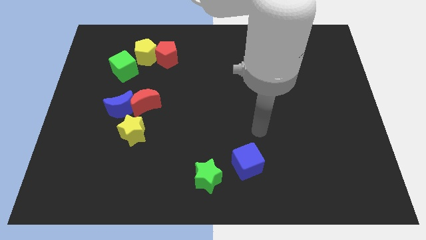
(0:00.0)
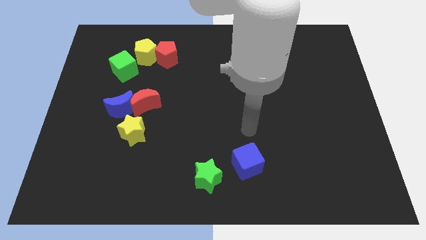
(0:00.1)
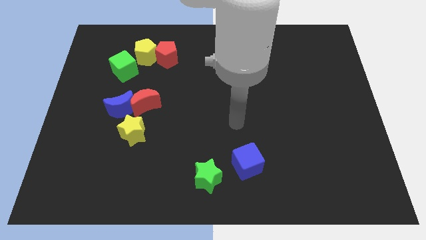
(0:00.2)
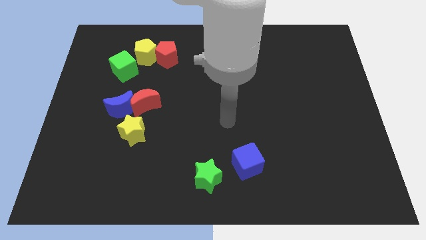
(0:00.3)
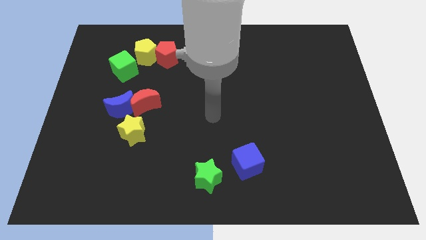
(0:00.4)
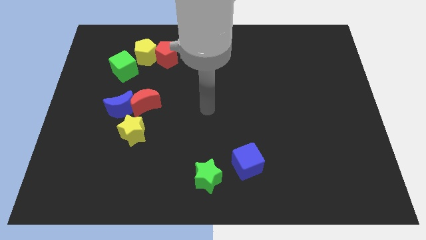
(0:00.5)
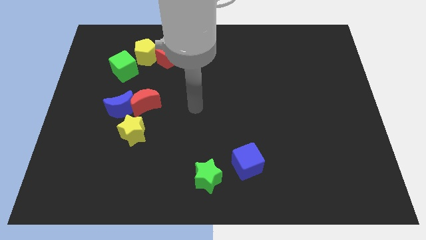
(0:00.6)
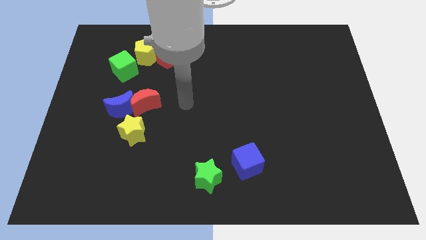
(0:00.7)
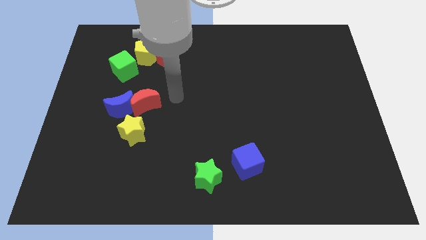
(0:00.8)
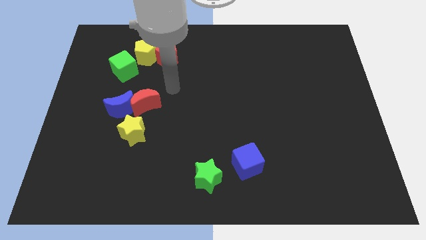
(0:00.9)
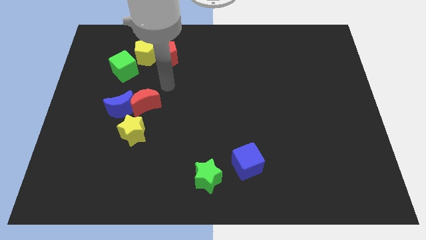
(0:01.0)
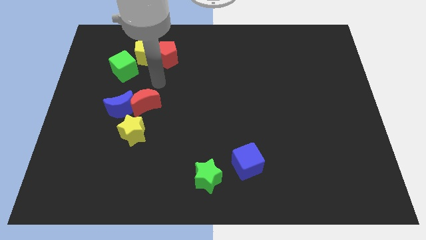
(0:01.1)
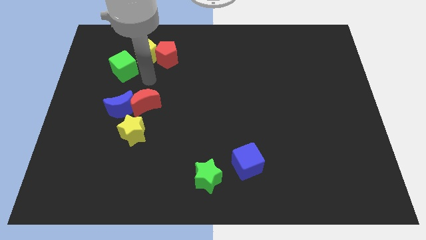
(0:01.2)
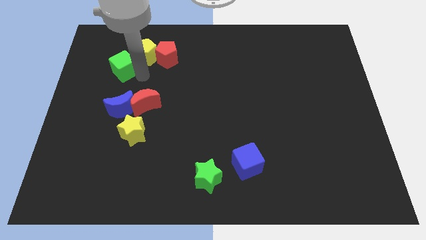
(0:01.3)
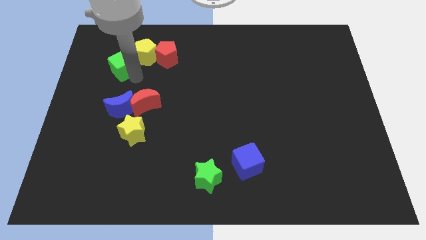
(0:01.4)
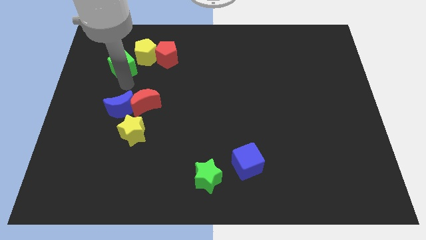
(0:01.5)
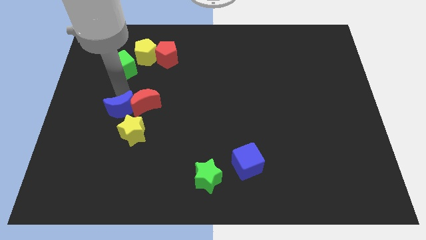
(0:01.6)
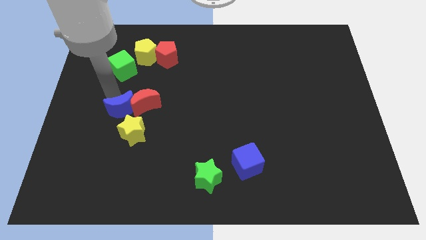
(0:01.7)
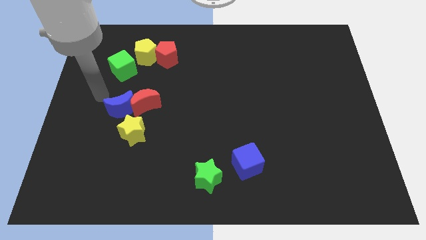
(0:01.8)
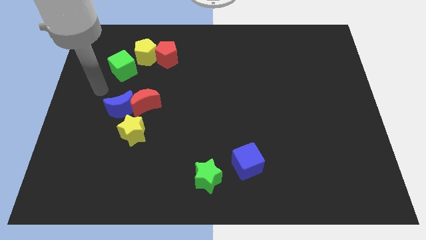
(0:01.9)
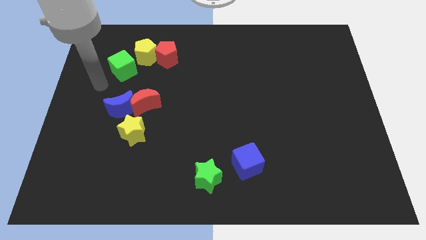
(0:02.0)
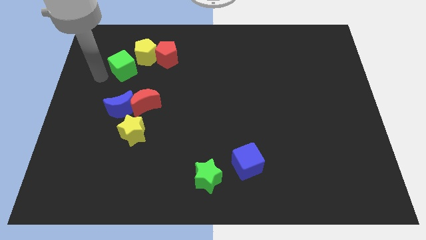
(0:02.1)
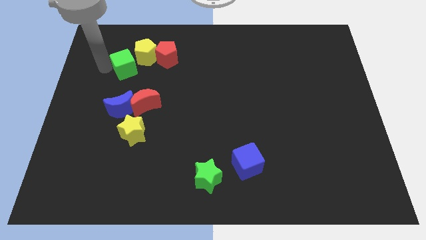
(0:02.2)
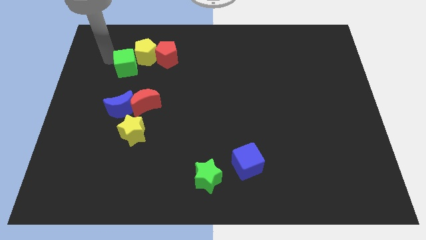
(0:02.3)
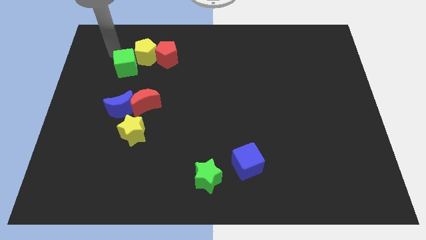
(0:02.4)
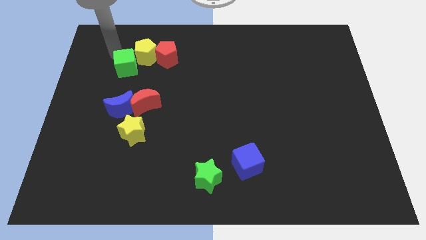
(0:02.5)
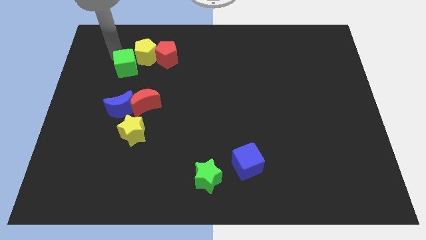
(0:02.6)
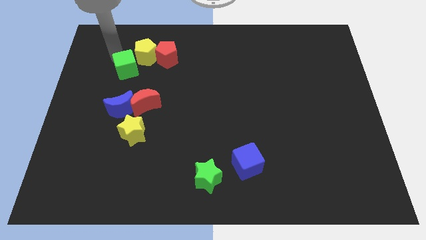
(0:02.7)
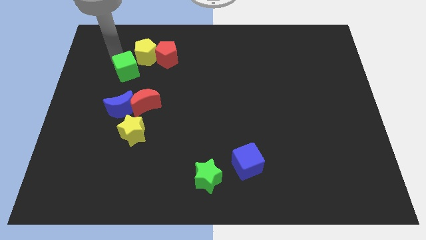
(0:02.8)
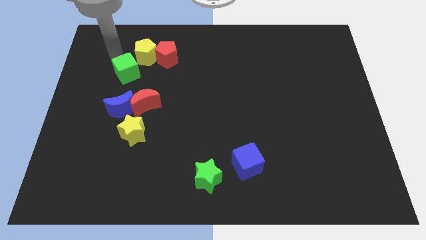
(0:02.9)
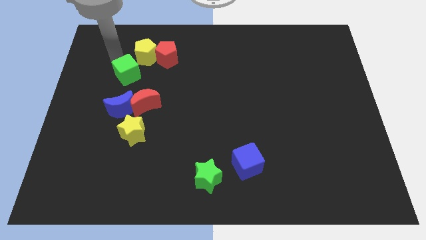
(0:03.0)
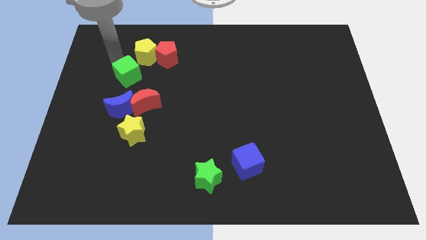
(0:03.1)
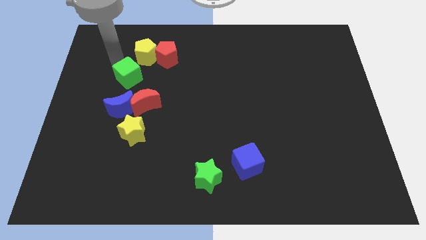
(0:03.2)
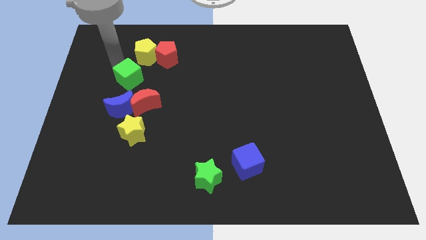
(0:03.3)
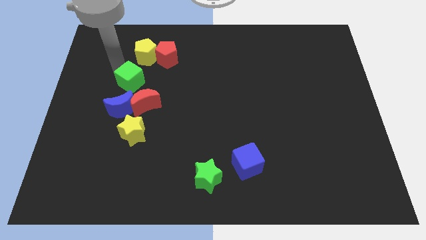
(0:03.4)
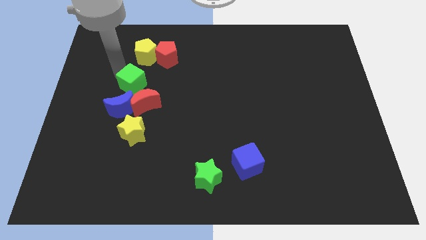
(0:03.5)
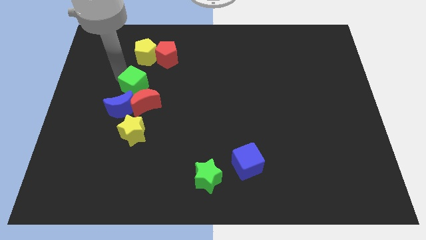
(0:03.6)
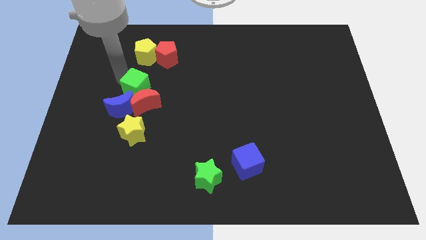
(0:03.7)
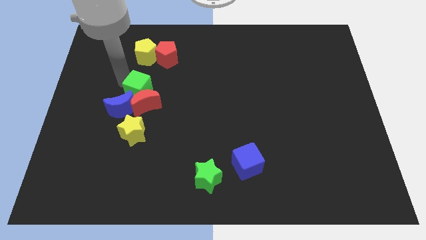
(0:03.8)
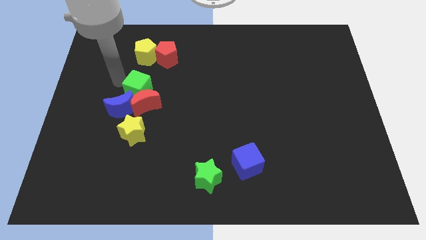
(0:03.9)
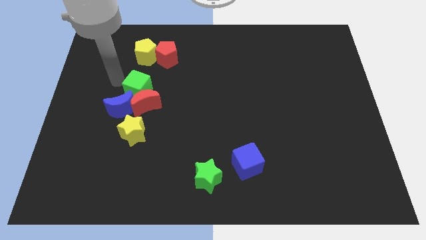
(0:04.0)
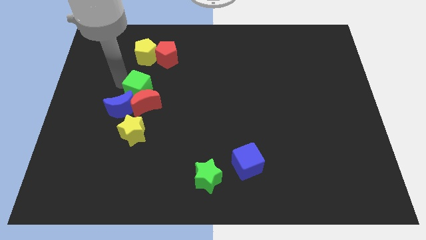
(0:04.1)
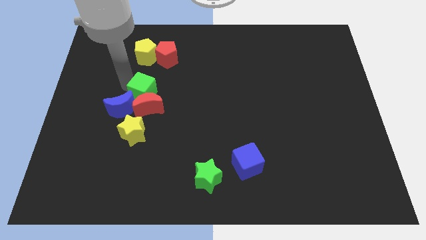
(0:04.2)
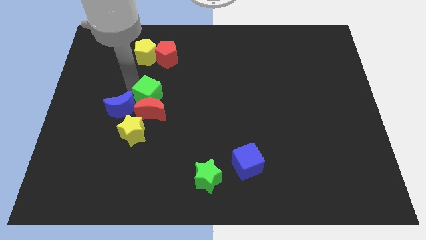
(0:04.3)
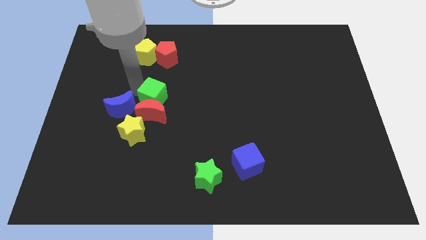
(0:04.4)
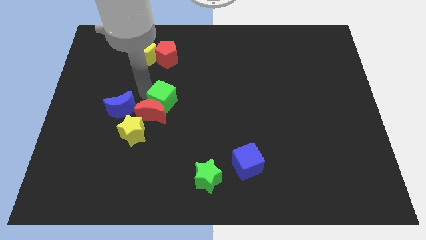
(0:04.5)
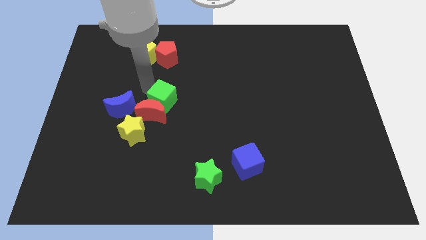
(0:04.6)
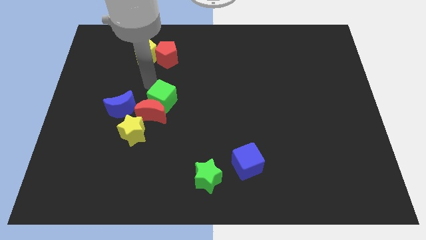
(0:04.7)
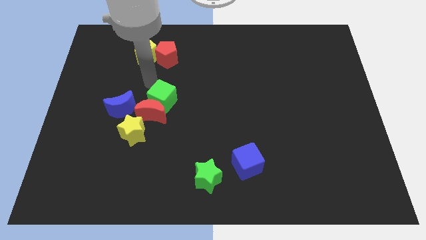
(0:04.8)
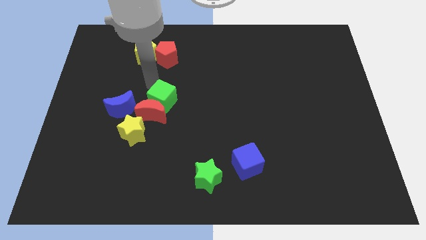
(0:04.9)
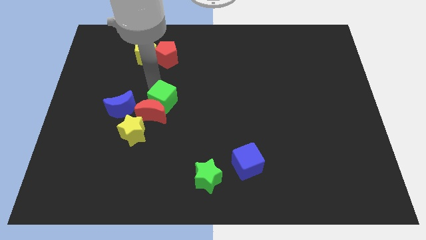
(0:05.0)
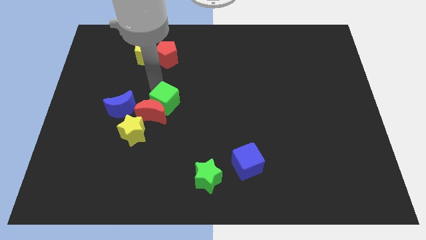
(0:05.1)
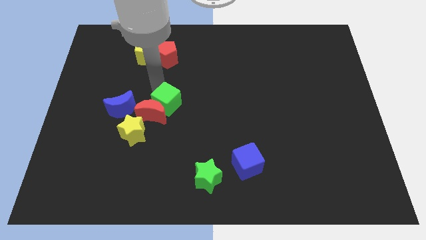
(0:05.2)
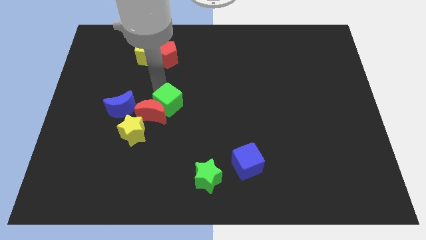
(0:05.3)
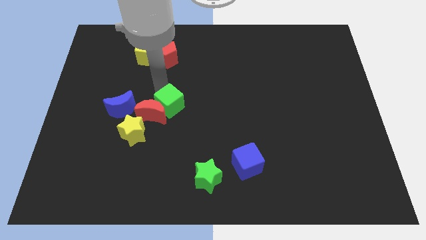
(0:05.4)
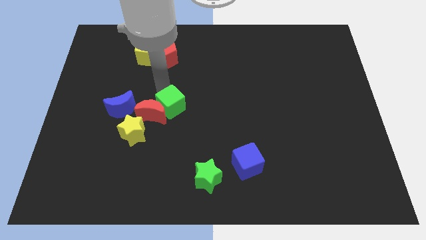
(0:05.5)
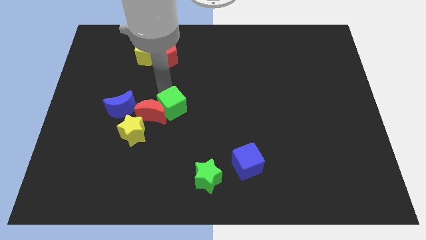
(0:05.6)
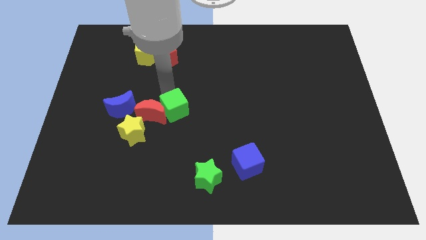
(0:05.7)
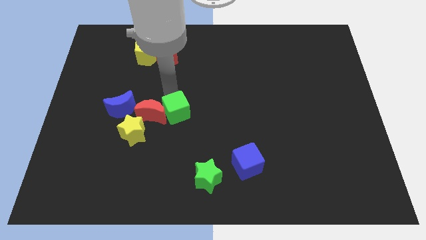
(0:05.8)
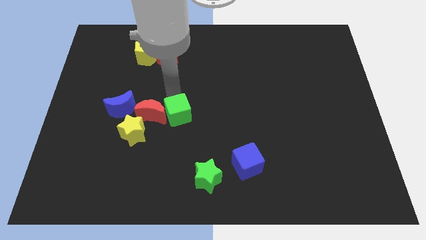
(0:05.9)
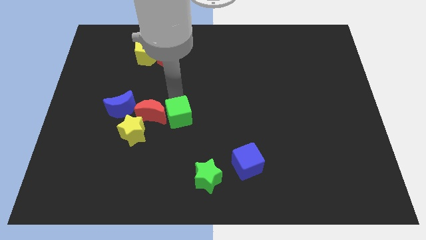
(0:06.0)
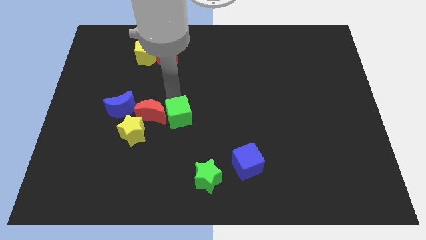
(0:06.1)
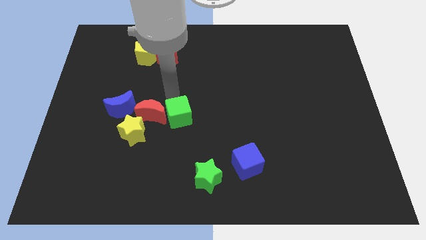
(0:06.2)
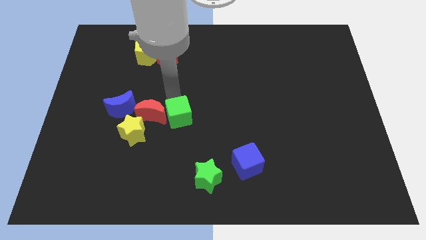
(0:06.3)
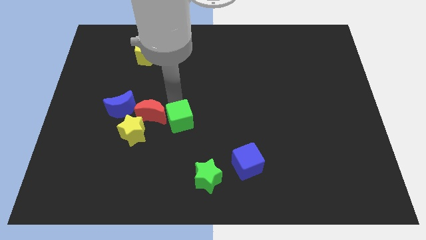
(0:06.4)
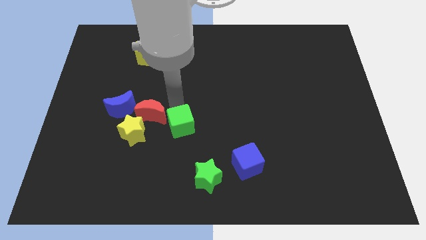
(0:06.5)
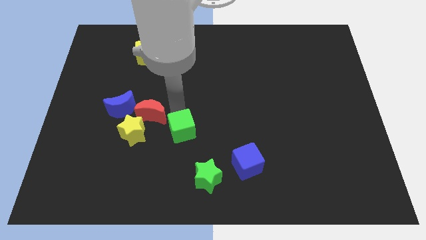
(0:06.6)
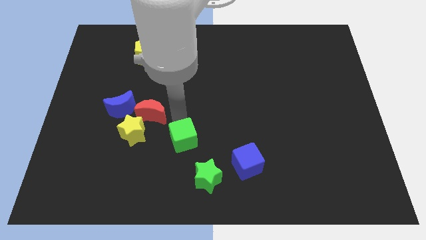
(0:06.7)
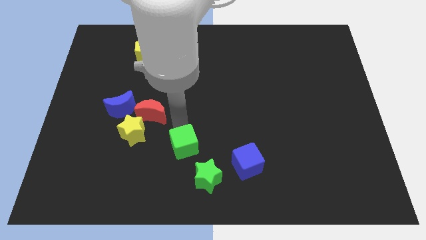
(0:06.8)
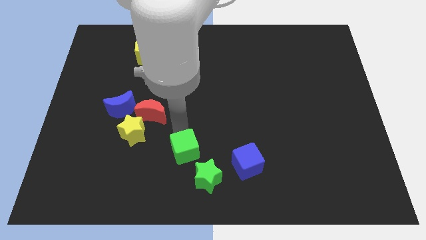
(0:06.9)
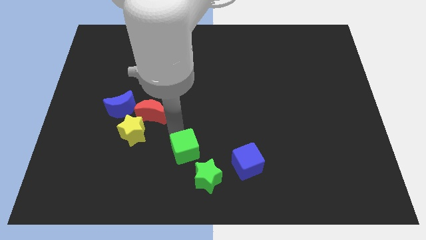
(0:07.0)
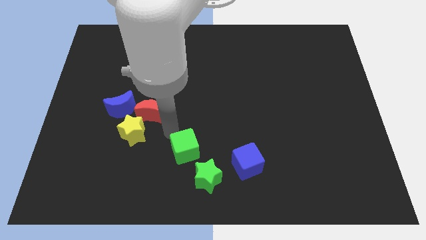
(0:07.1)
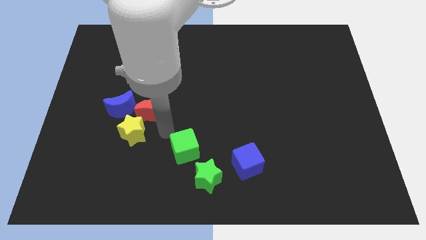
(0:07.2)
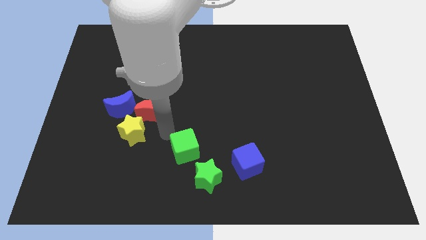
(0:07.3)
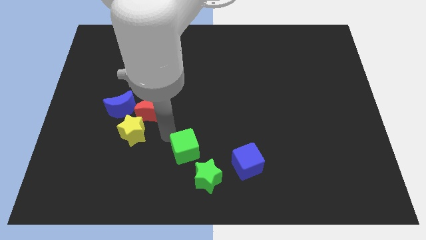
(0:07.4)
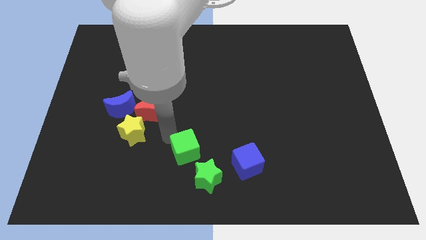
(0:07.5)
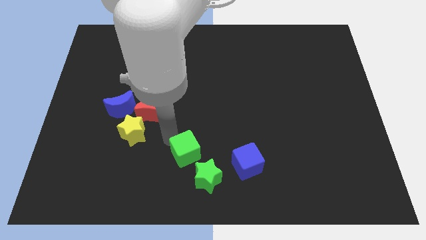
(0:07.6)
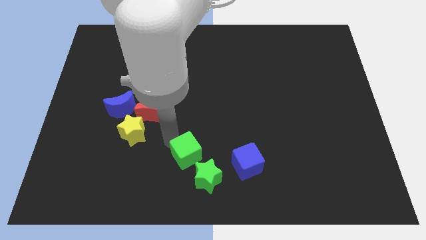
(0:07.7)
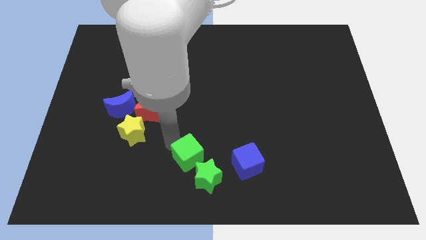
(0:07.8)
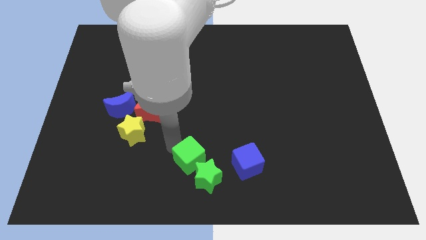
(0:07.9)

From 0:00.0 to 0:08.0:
put the green cube to the green star
